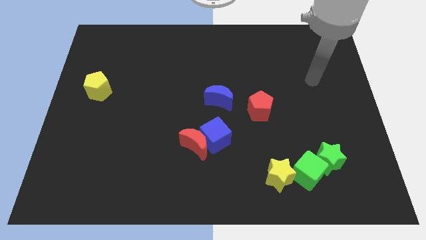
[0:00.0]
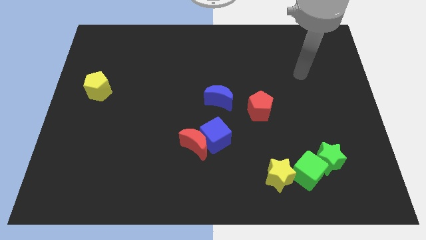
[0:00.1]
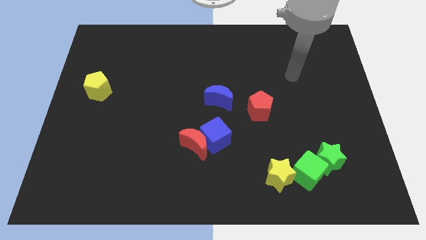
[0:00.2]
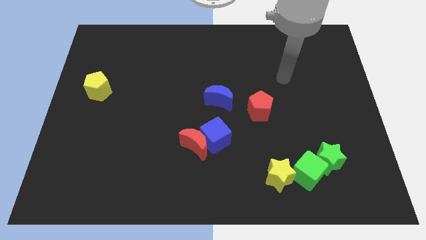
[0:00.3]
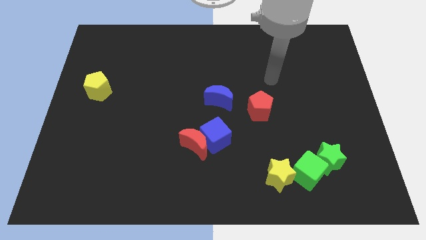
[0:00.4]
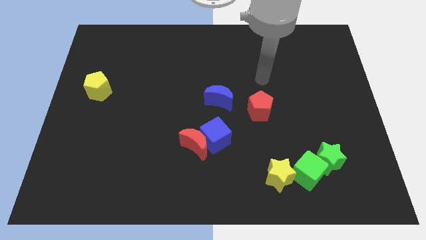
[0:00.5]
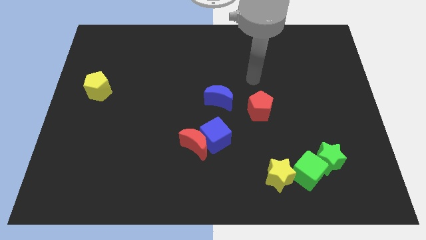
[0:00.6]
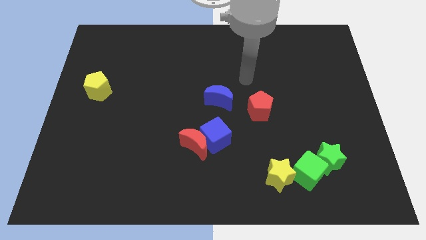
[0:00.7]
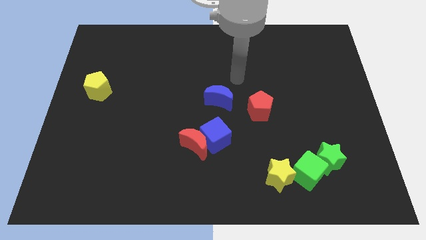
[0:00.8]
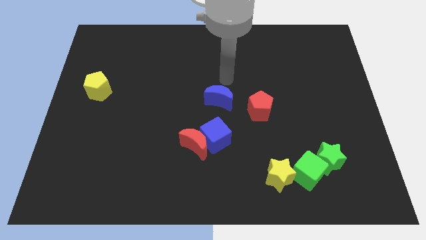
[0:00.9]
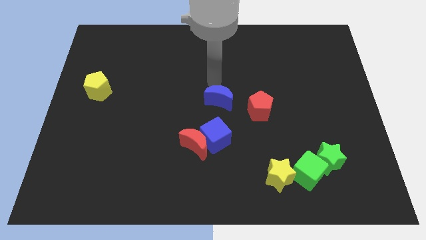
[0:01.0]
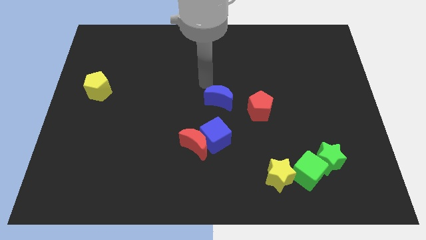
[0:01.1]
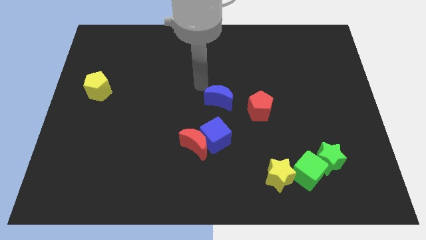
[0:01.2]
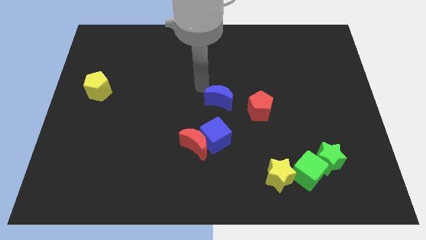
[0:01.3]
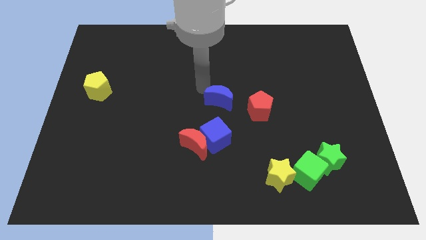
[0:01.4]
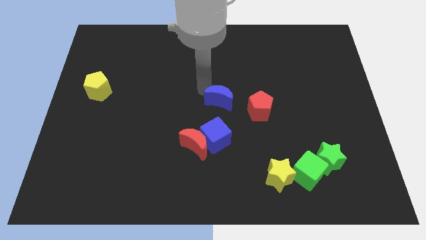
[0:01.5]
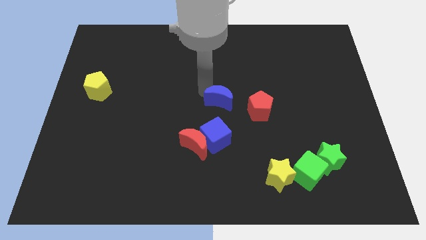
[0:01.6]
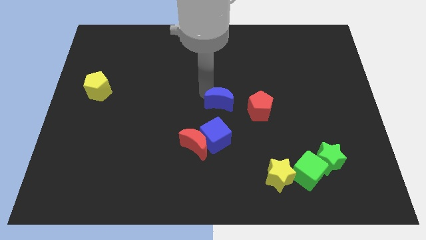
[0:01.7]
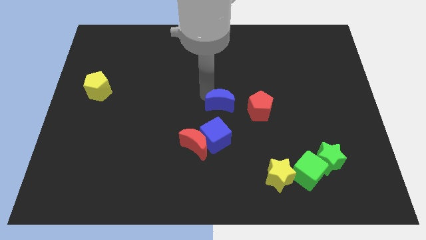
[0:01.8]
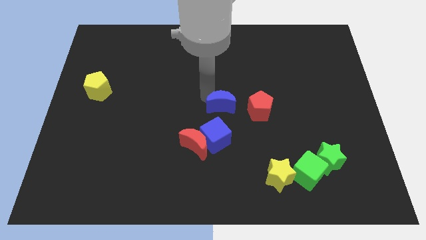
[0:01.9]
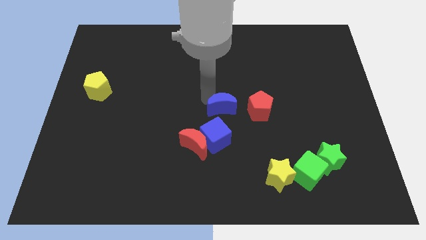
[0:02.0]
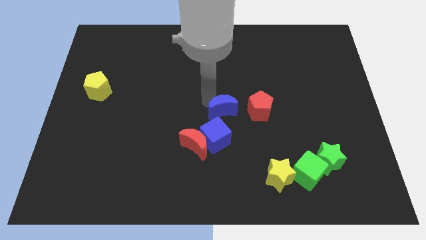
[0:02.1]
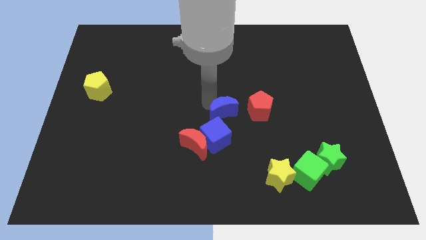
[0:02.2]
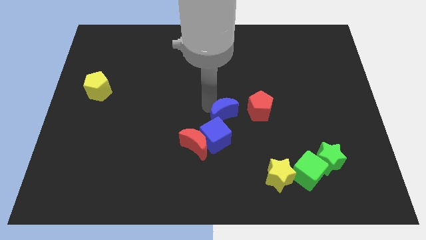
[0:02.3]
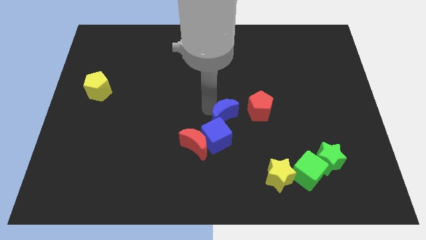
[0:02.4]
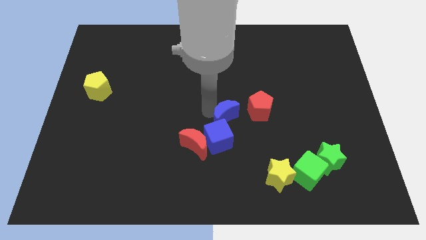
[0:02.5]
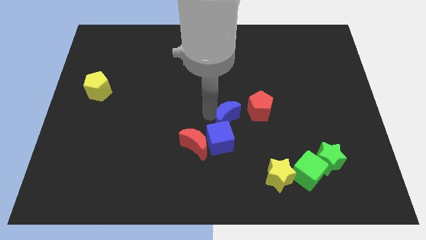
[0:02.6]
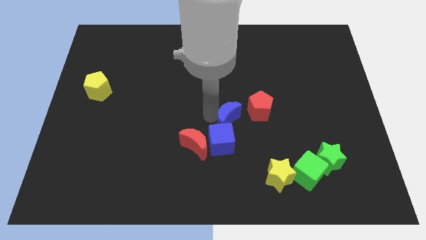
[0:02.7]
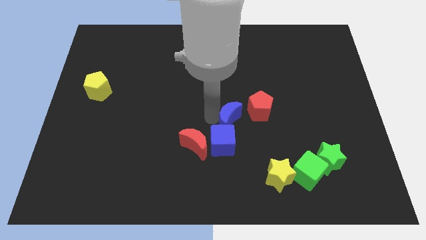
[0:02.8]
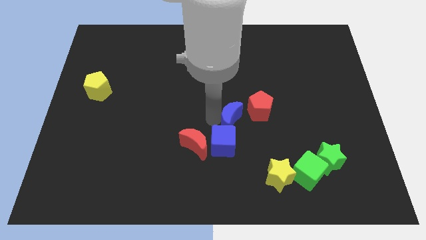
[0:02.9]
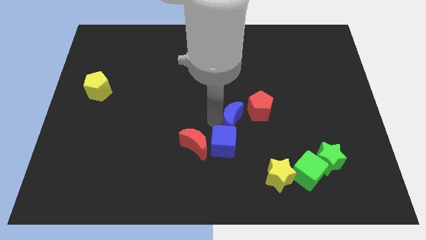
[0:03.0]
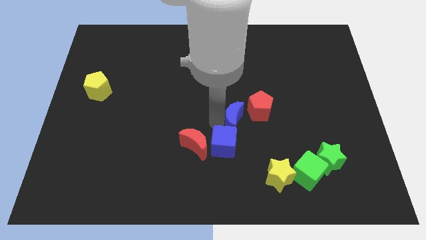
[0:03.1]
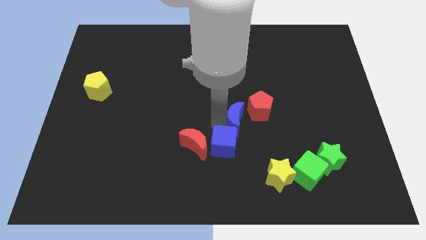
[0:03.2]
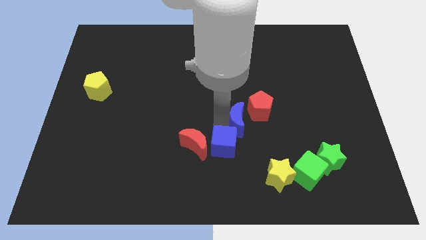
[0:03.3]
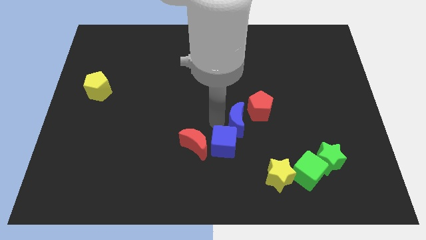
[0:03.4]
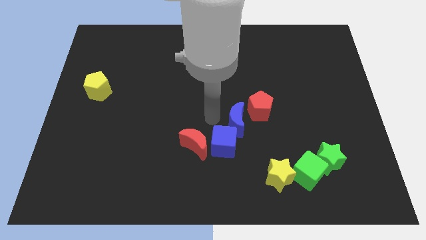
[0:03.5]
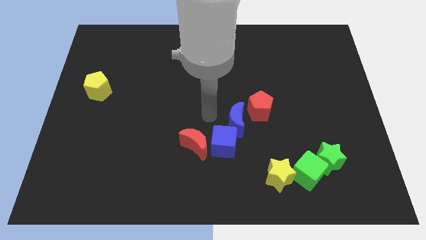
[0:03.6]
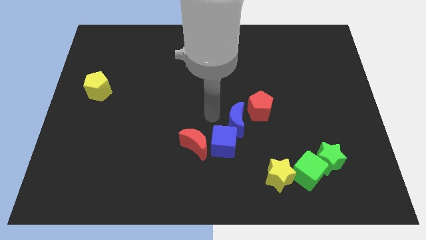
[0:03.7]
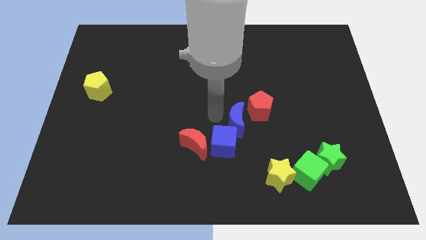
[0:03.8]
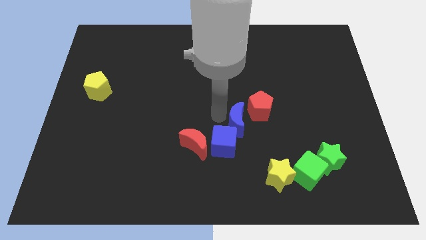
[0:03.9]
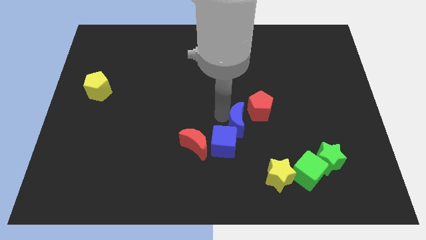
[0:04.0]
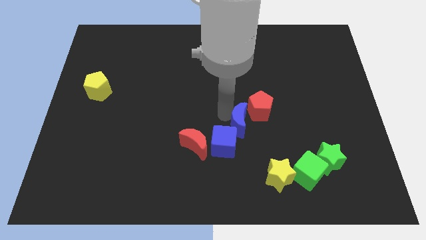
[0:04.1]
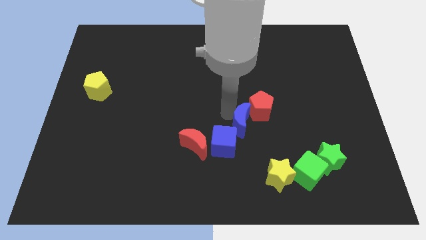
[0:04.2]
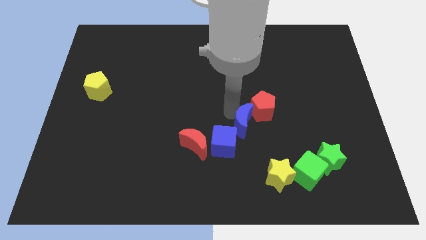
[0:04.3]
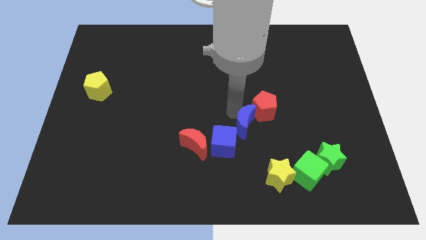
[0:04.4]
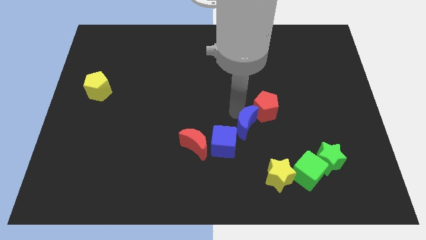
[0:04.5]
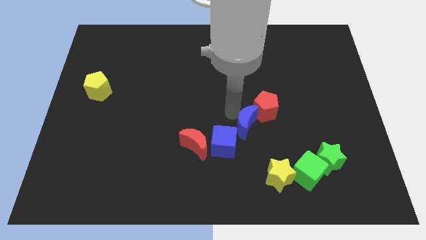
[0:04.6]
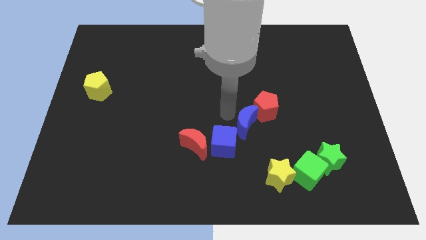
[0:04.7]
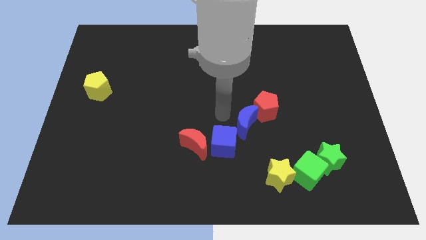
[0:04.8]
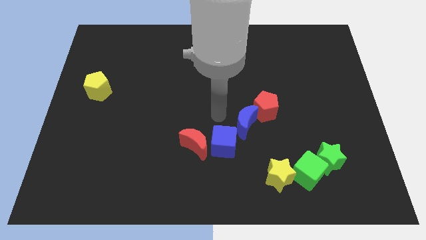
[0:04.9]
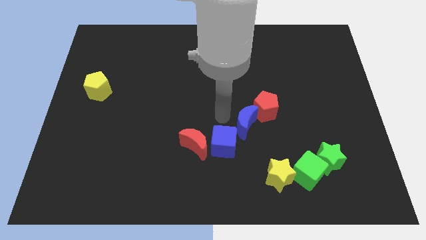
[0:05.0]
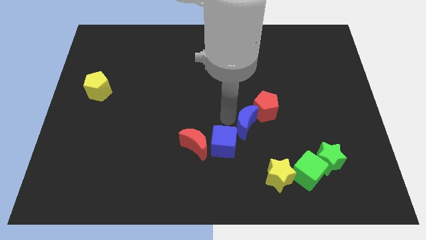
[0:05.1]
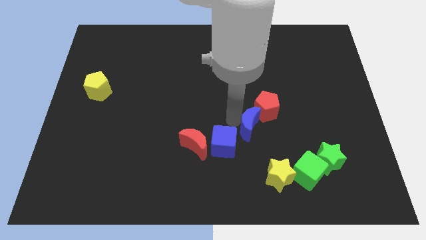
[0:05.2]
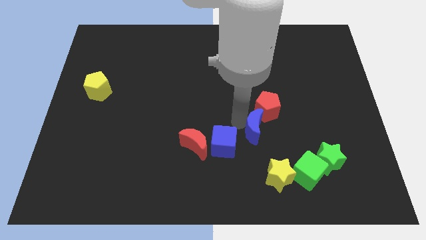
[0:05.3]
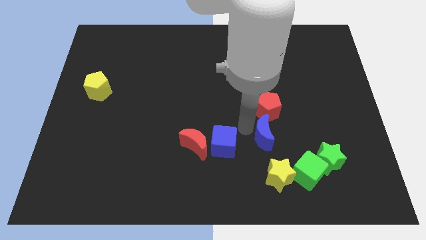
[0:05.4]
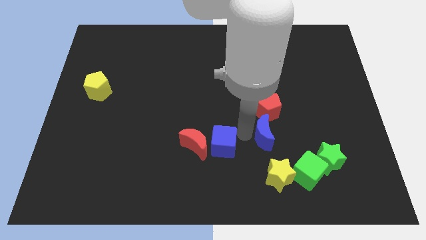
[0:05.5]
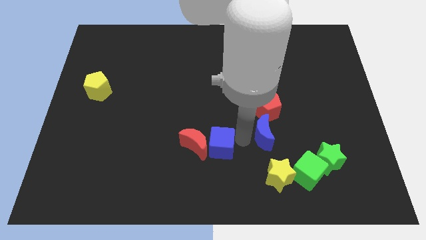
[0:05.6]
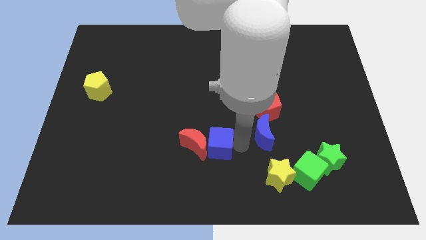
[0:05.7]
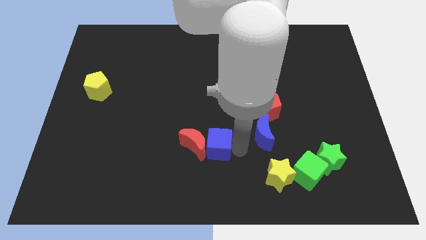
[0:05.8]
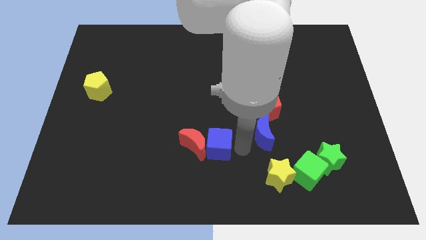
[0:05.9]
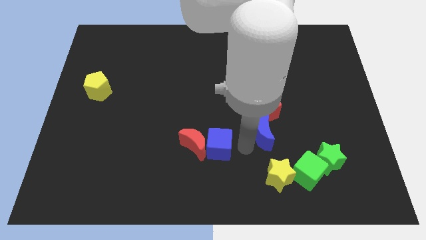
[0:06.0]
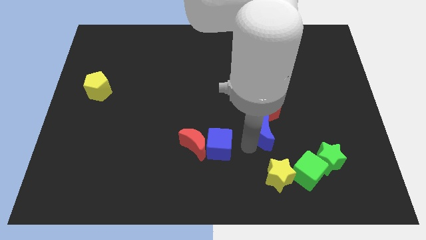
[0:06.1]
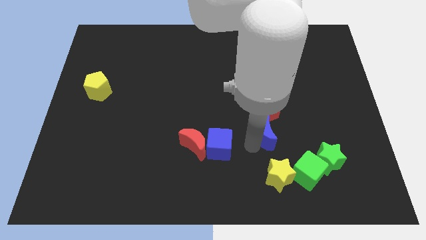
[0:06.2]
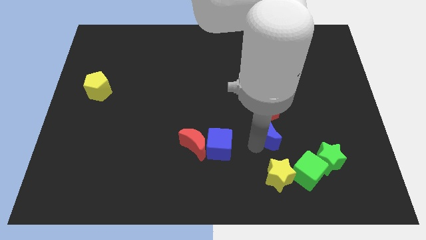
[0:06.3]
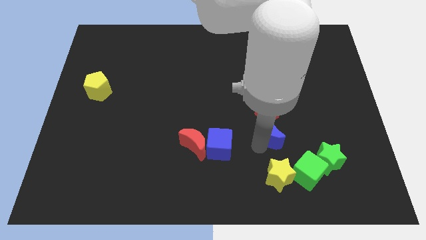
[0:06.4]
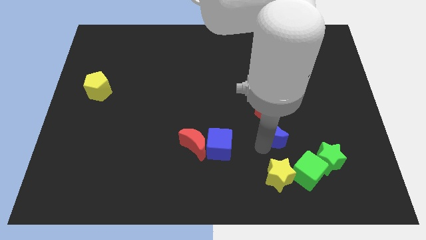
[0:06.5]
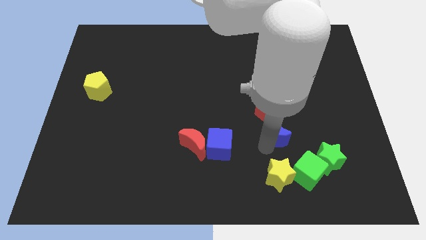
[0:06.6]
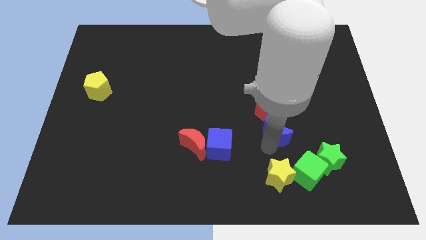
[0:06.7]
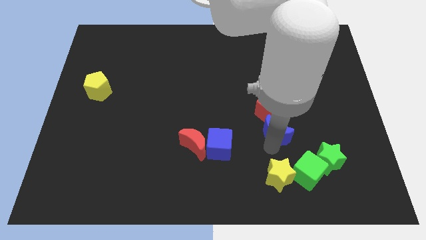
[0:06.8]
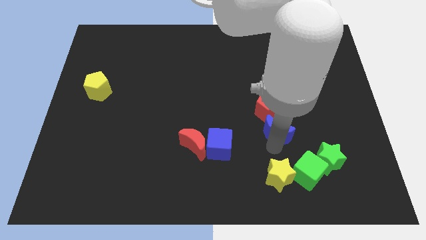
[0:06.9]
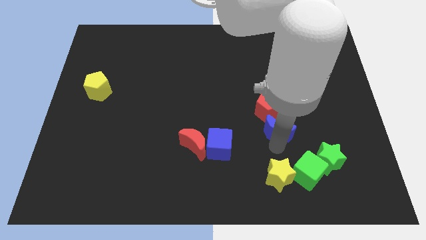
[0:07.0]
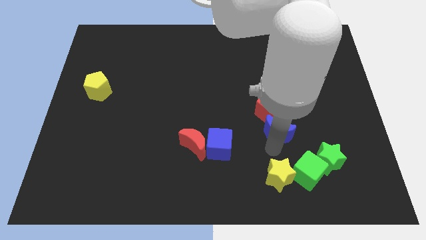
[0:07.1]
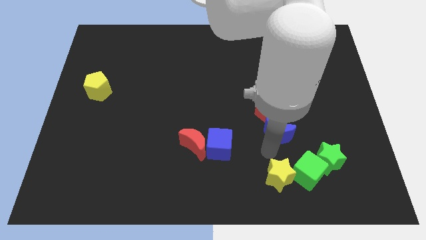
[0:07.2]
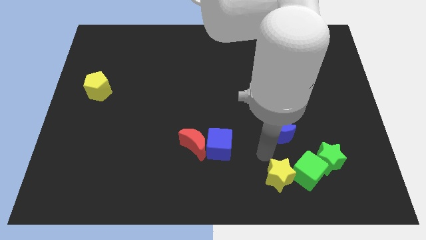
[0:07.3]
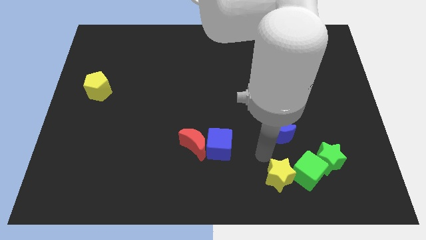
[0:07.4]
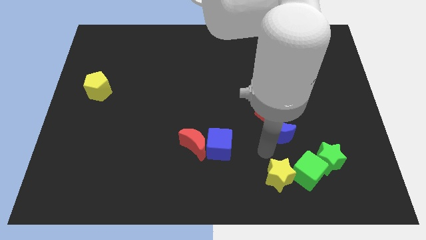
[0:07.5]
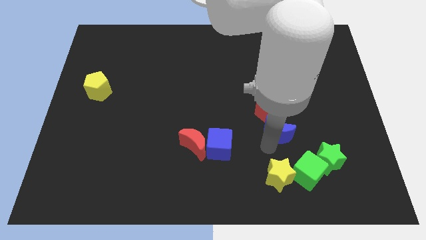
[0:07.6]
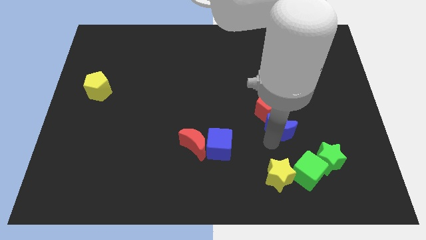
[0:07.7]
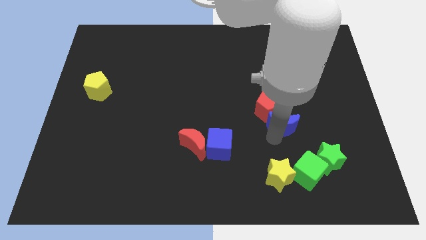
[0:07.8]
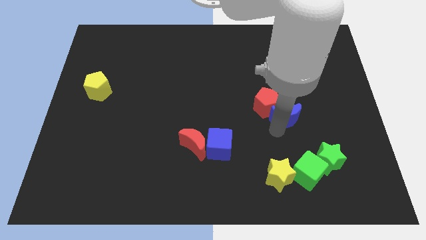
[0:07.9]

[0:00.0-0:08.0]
push the blue moon to the right side of the red pentagon
